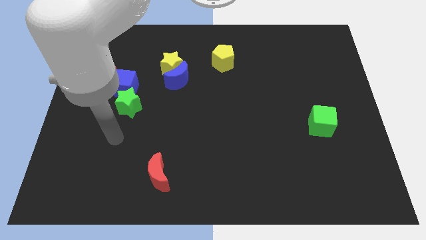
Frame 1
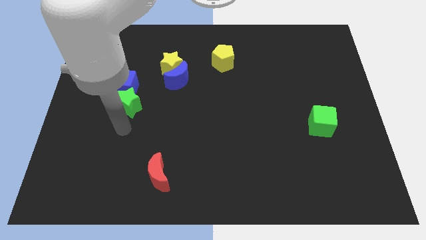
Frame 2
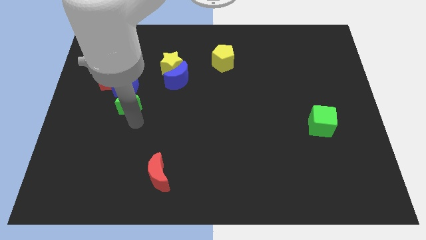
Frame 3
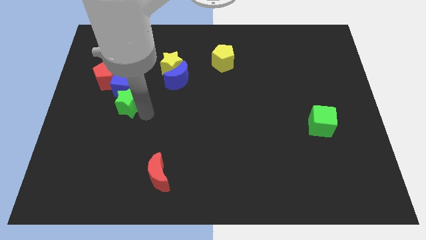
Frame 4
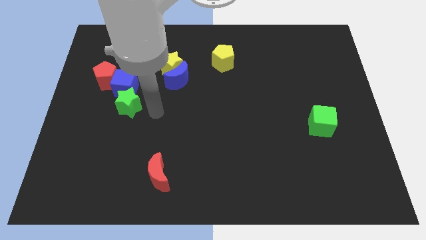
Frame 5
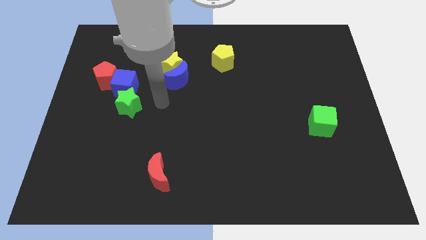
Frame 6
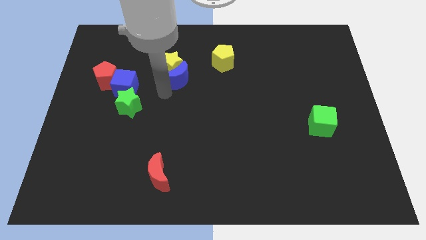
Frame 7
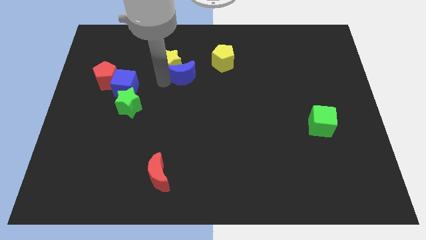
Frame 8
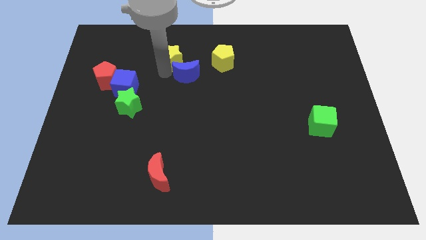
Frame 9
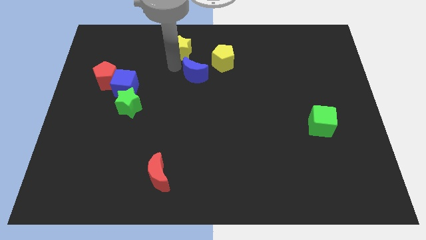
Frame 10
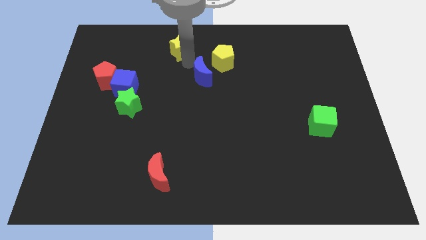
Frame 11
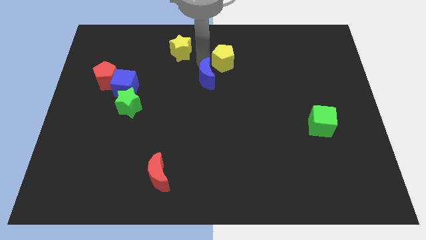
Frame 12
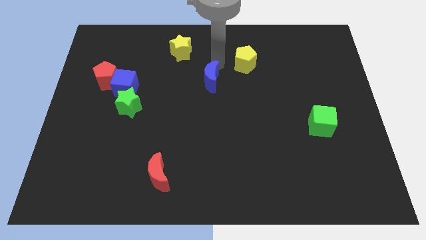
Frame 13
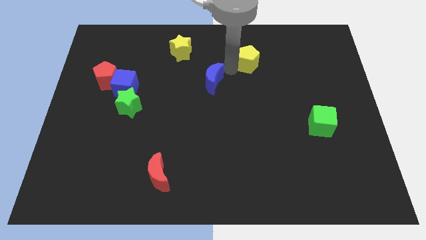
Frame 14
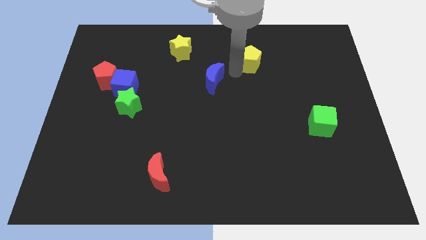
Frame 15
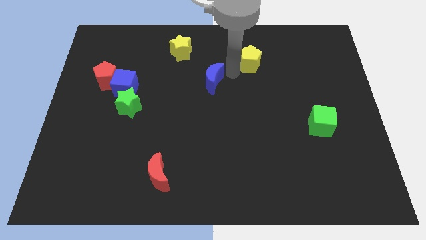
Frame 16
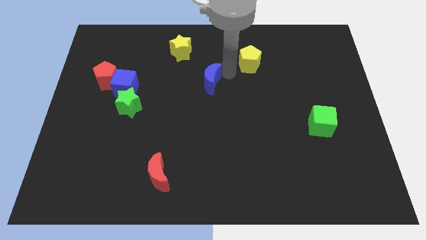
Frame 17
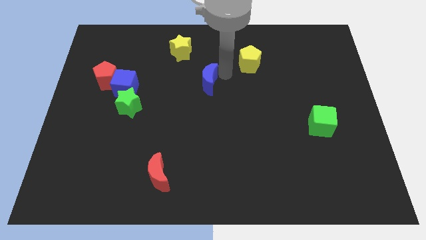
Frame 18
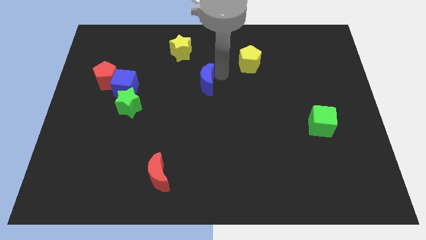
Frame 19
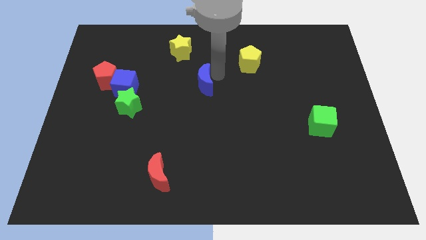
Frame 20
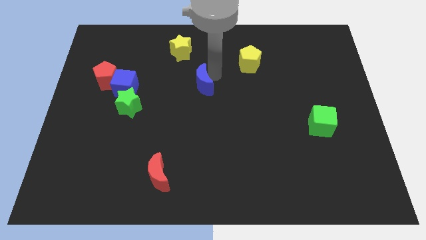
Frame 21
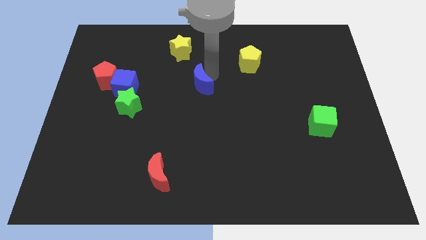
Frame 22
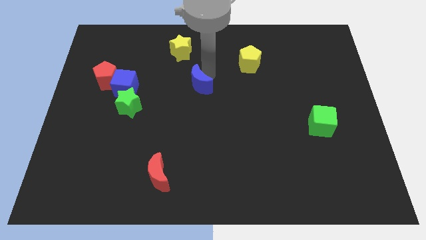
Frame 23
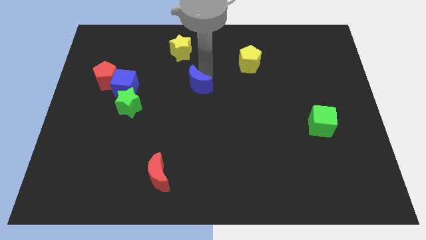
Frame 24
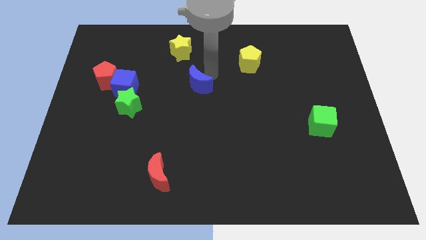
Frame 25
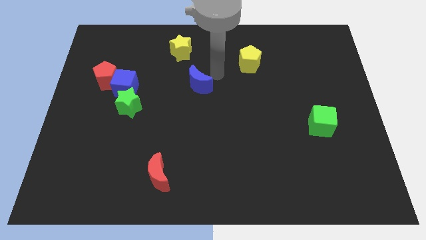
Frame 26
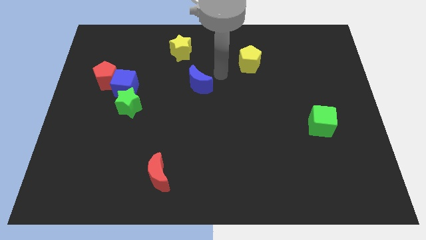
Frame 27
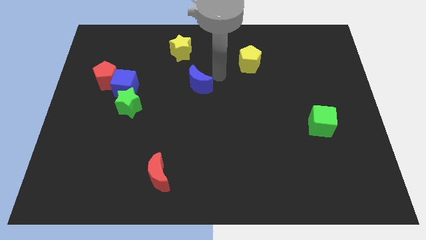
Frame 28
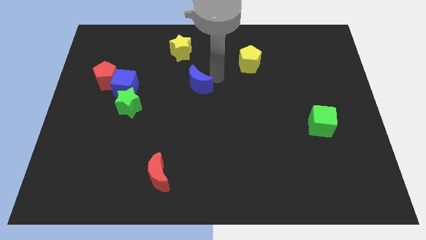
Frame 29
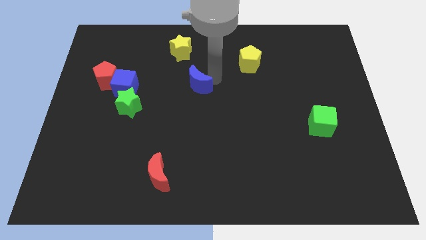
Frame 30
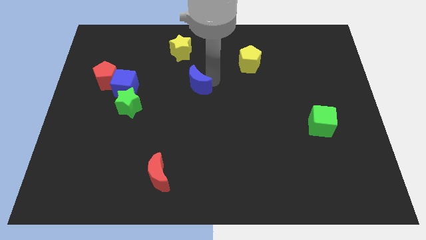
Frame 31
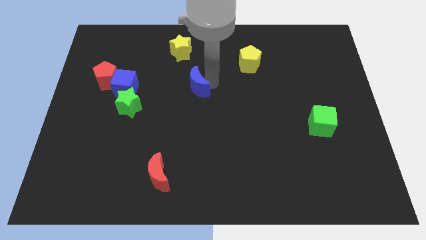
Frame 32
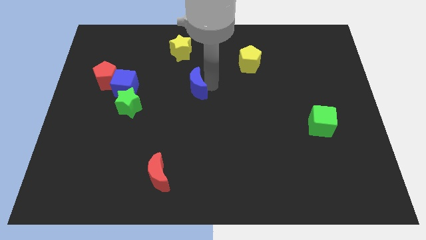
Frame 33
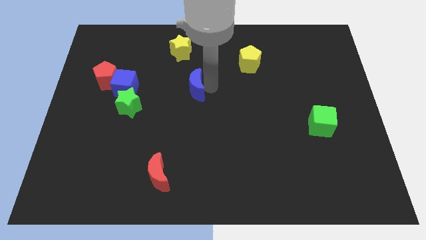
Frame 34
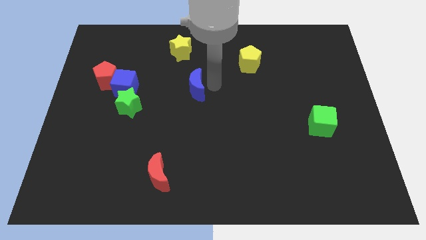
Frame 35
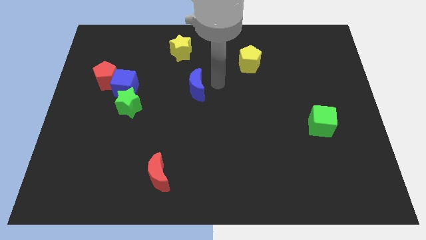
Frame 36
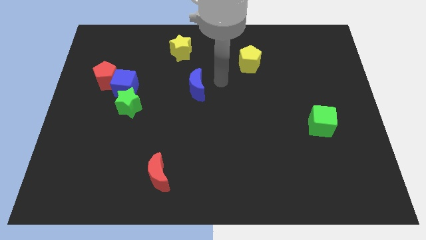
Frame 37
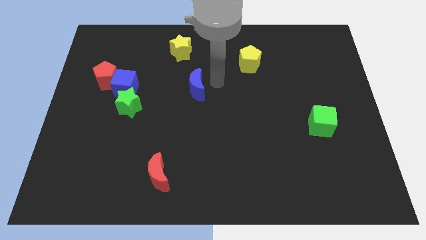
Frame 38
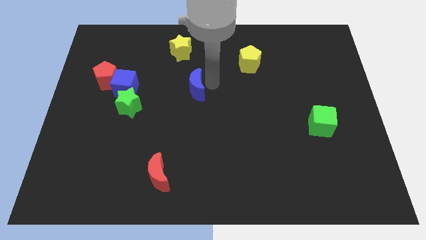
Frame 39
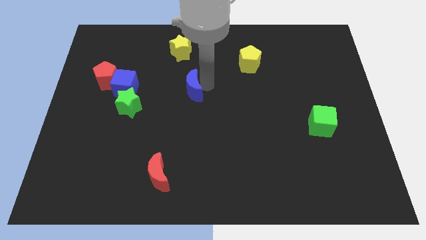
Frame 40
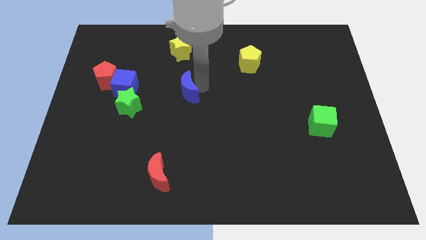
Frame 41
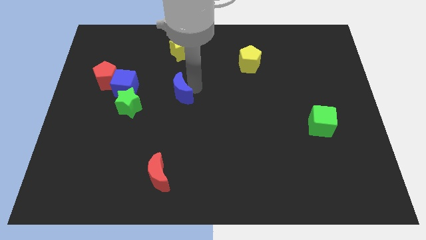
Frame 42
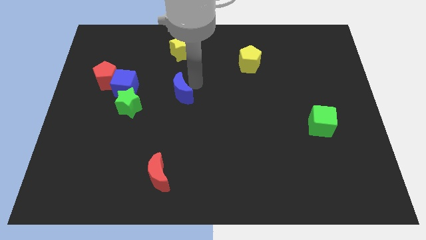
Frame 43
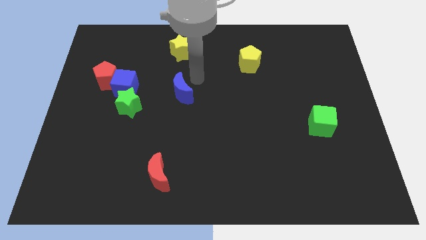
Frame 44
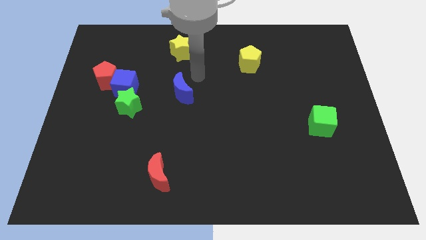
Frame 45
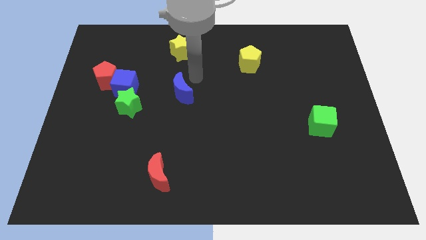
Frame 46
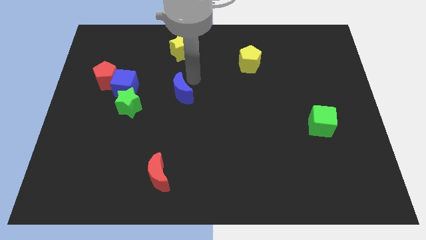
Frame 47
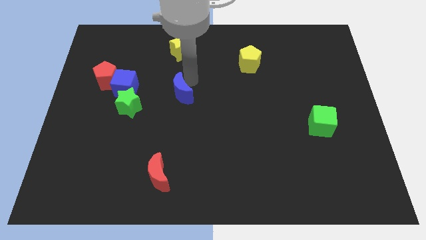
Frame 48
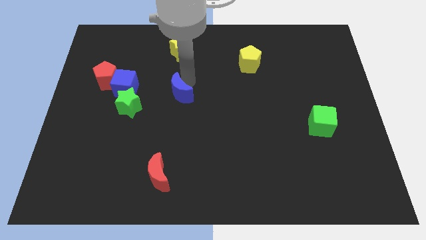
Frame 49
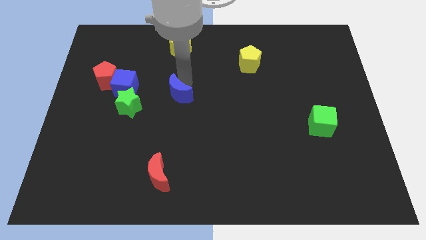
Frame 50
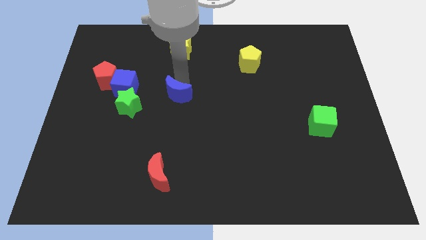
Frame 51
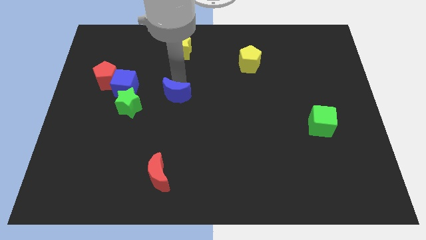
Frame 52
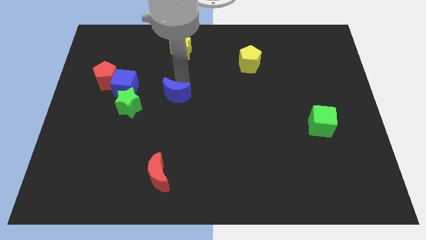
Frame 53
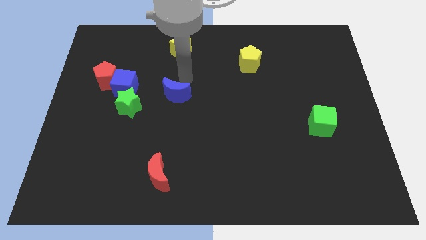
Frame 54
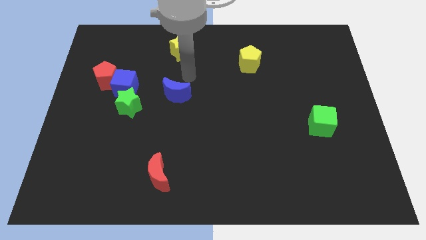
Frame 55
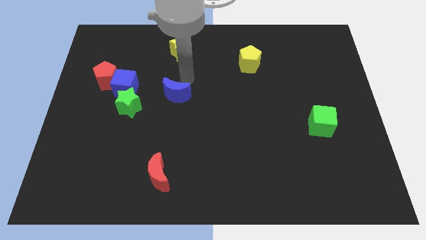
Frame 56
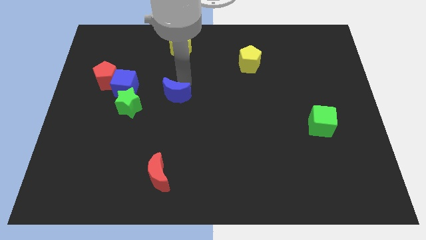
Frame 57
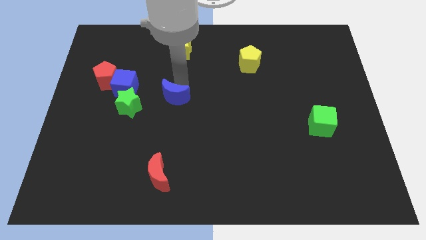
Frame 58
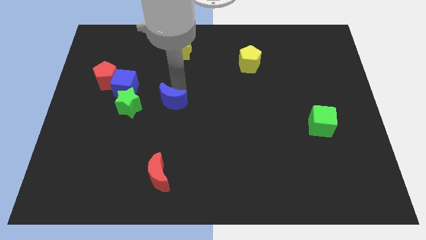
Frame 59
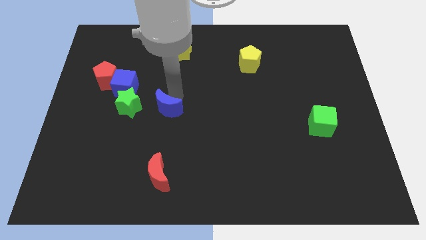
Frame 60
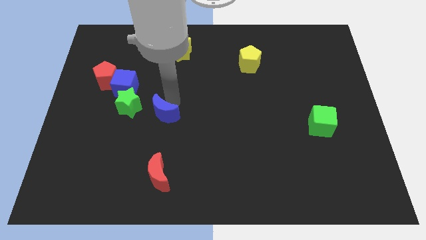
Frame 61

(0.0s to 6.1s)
move the blue moon diagonally down and to the right of the green star

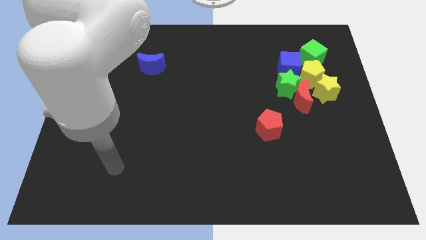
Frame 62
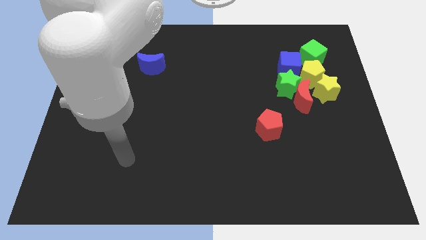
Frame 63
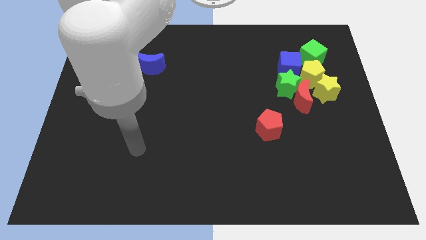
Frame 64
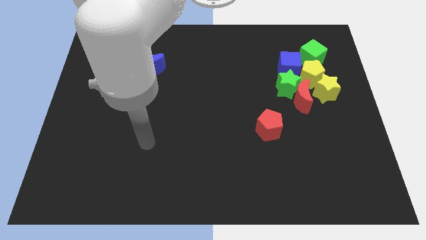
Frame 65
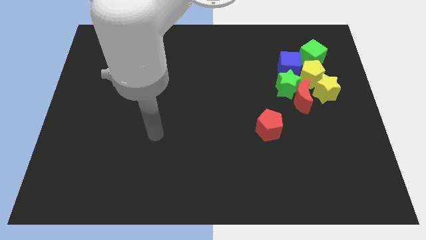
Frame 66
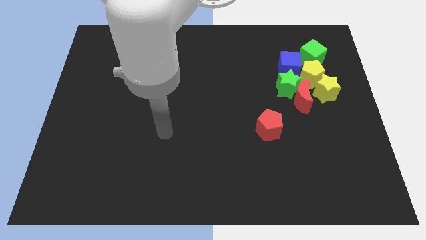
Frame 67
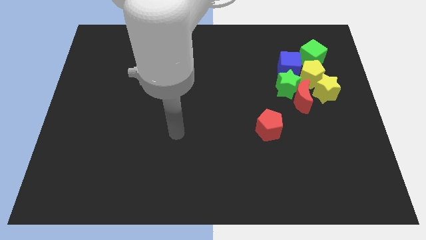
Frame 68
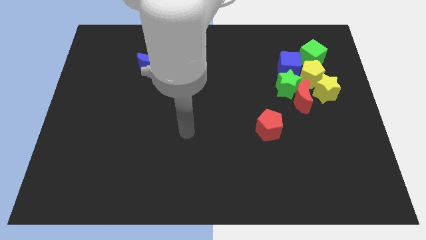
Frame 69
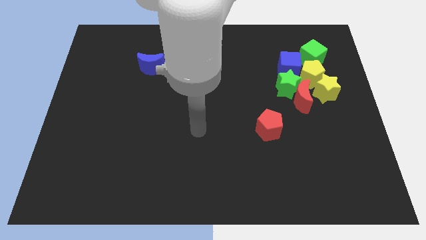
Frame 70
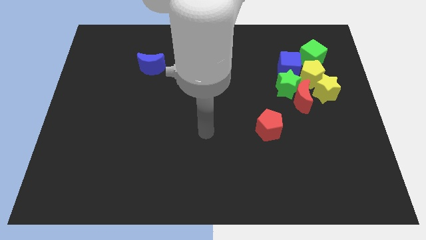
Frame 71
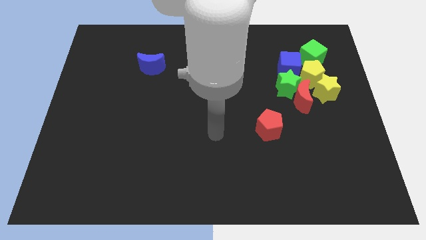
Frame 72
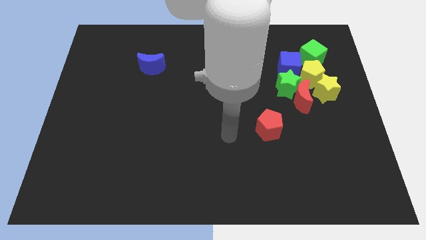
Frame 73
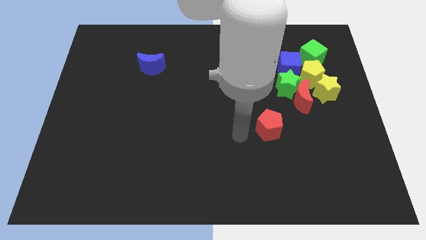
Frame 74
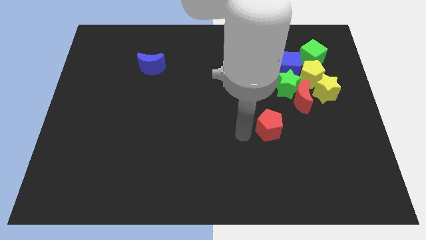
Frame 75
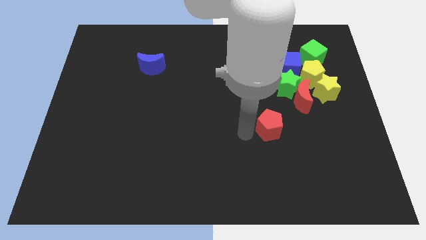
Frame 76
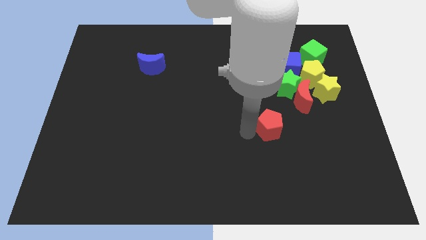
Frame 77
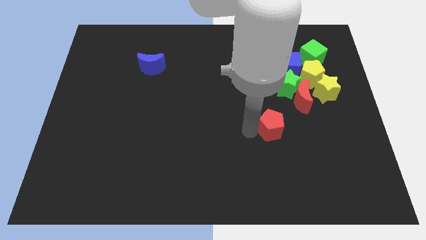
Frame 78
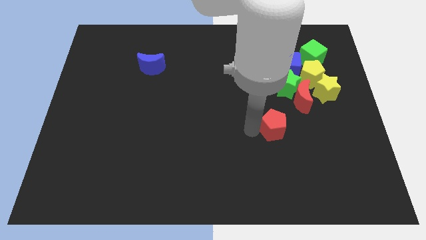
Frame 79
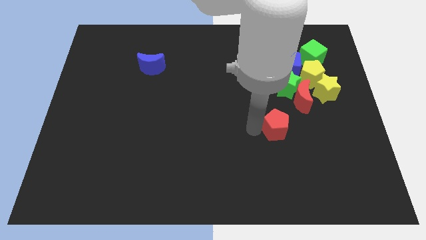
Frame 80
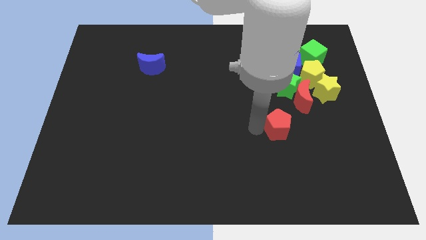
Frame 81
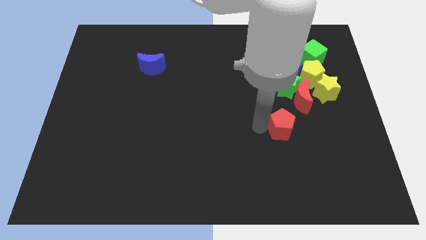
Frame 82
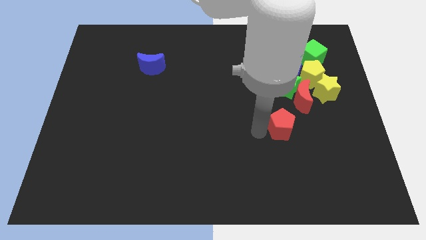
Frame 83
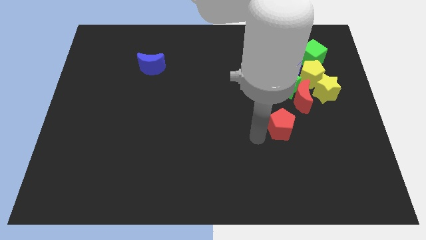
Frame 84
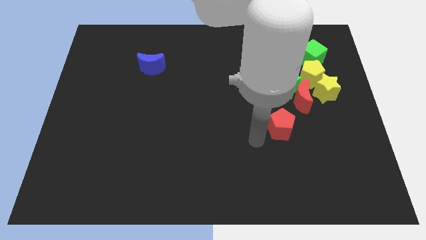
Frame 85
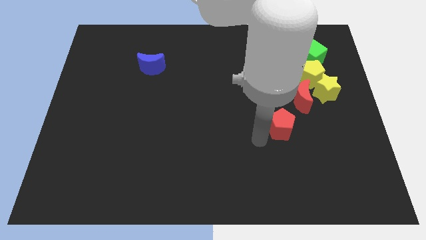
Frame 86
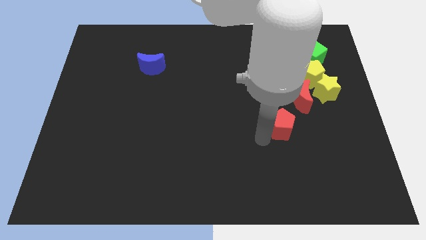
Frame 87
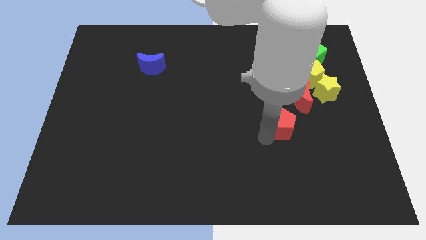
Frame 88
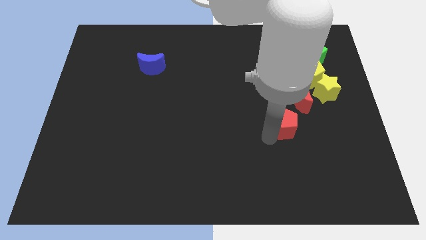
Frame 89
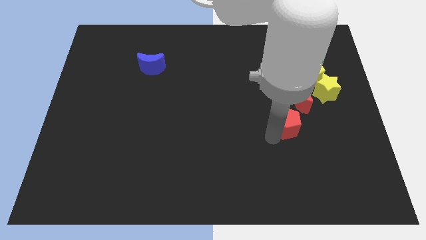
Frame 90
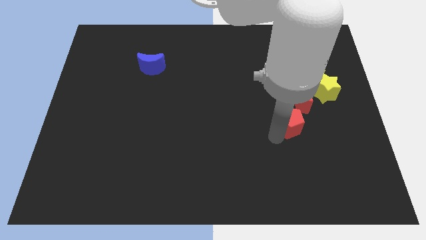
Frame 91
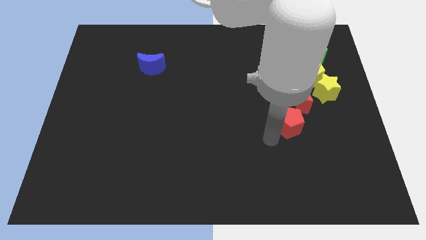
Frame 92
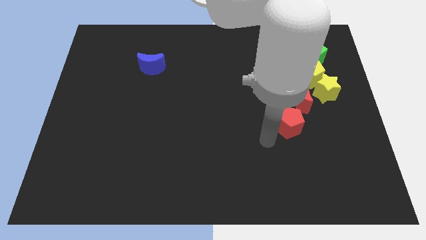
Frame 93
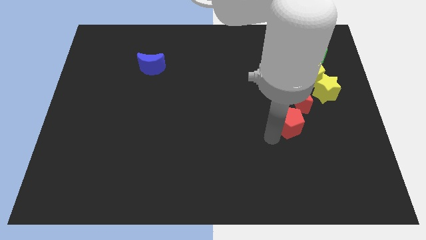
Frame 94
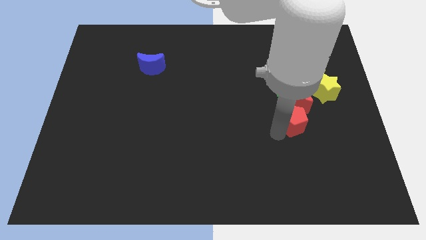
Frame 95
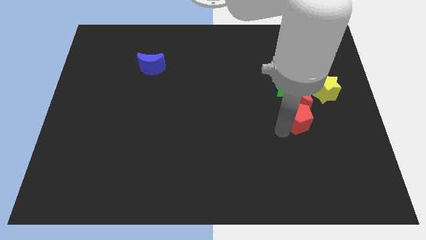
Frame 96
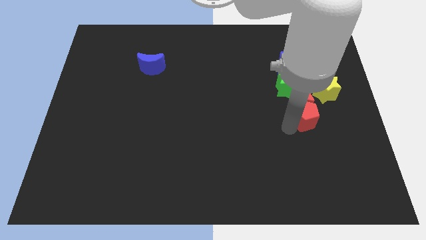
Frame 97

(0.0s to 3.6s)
push the red pentagon diagonally down and to the right of the green star
